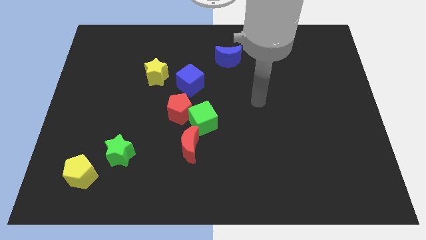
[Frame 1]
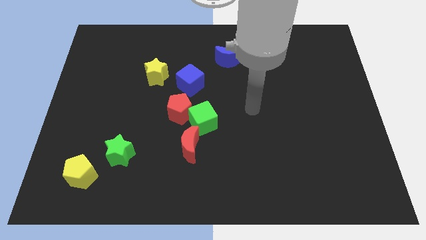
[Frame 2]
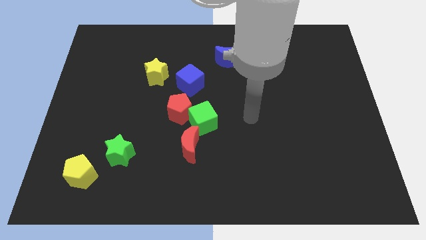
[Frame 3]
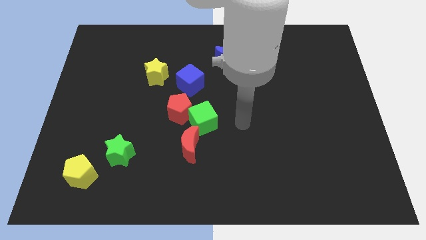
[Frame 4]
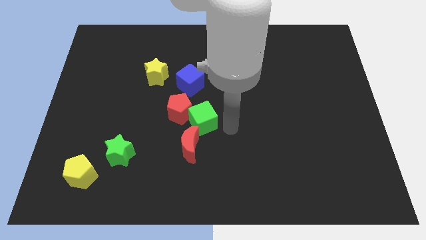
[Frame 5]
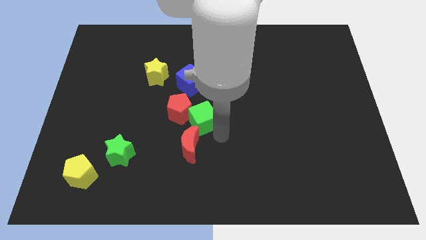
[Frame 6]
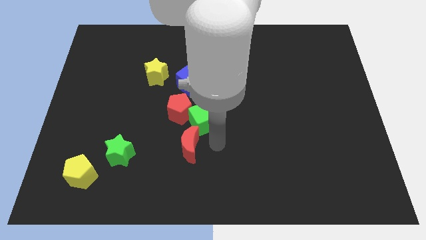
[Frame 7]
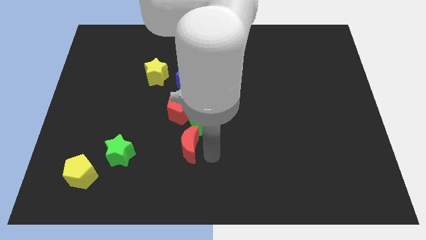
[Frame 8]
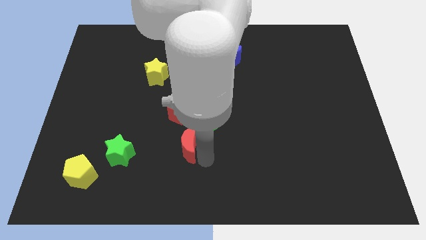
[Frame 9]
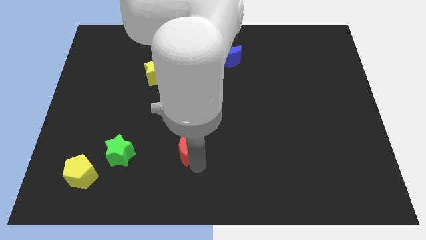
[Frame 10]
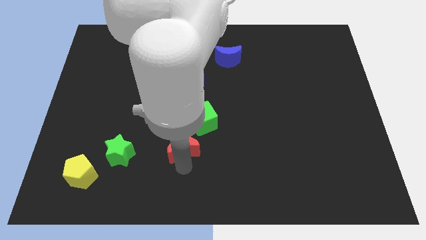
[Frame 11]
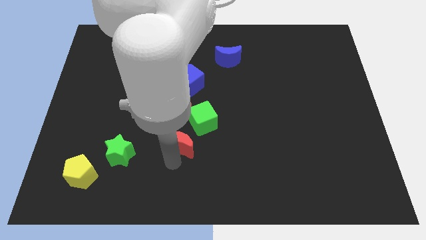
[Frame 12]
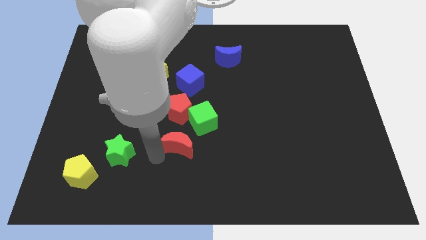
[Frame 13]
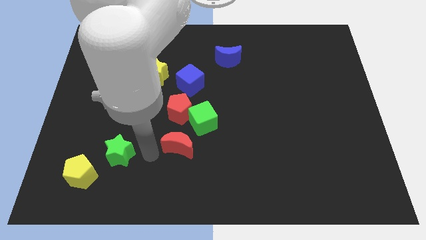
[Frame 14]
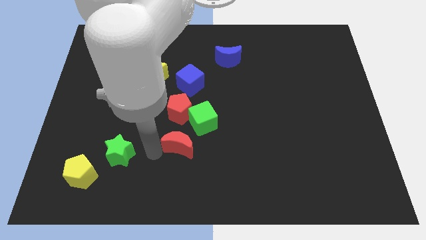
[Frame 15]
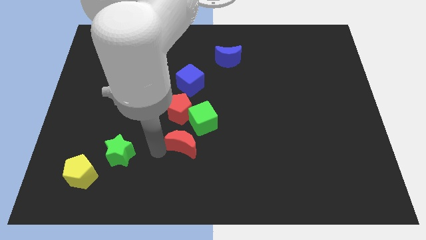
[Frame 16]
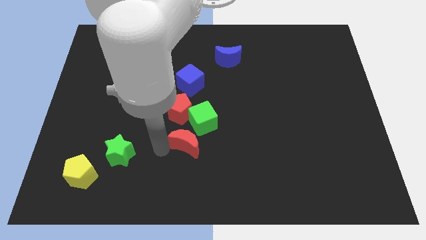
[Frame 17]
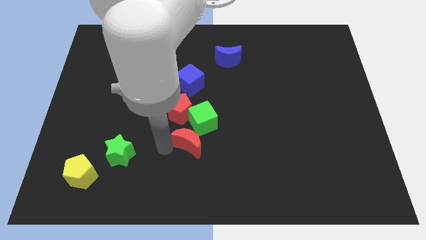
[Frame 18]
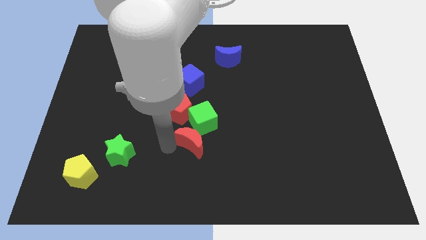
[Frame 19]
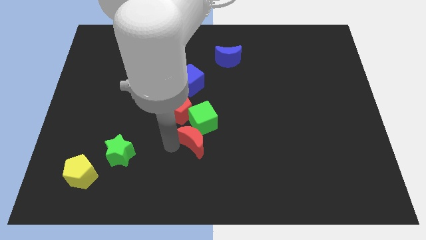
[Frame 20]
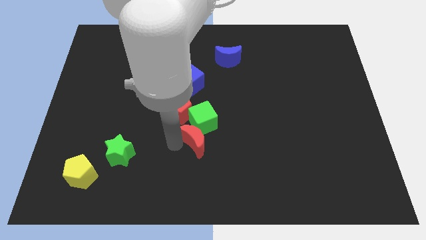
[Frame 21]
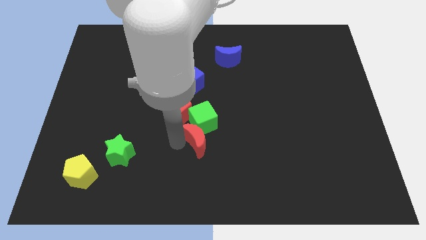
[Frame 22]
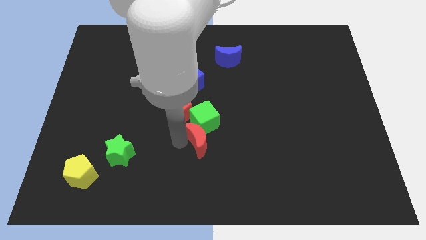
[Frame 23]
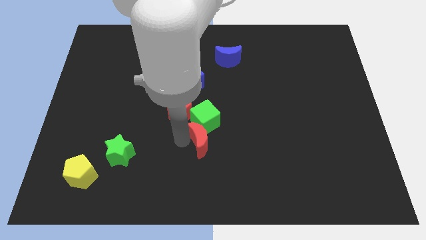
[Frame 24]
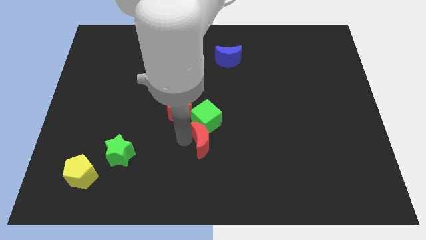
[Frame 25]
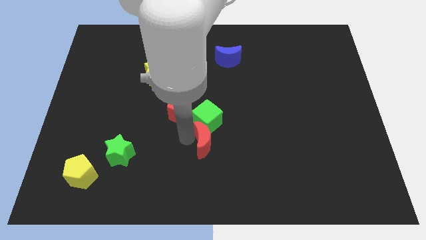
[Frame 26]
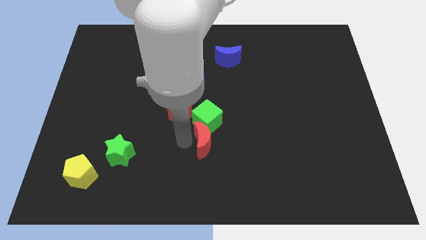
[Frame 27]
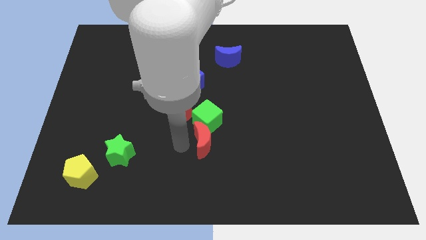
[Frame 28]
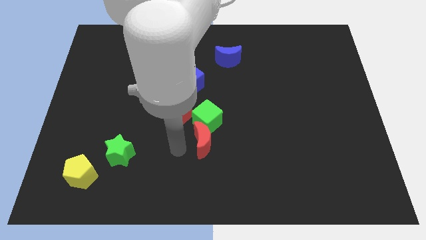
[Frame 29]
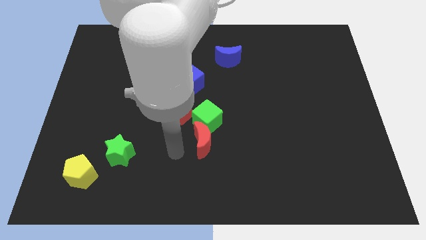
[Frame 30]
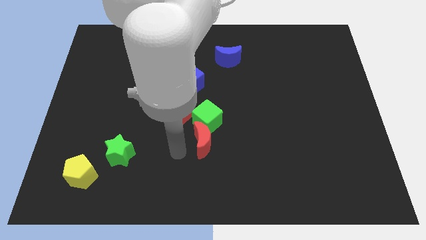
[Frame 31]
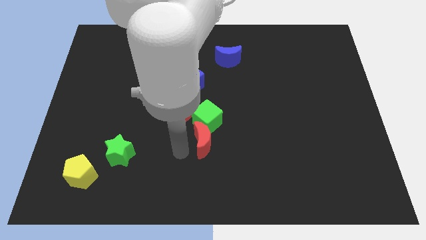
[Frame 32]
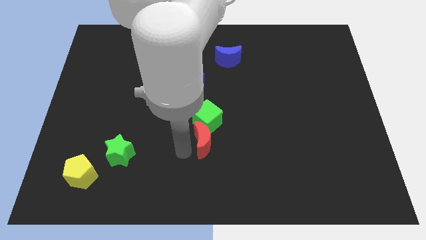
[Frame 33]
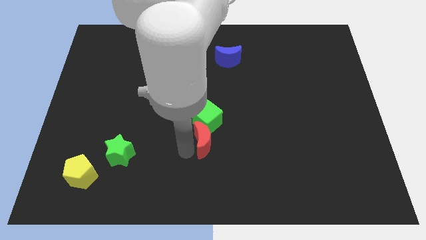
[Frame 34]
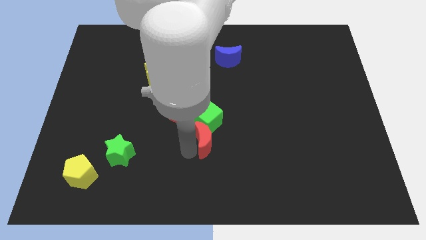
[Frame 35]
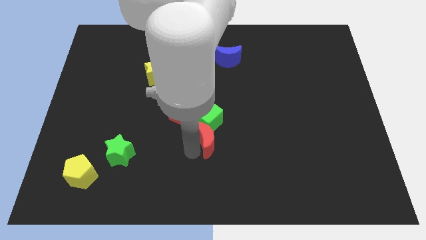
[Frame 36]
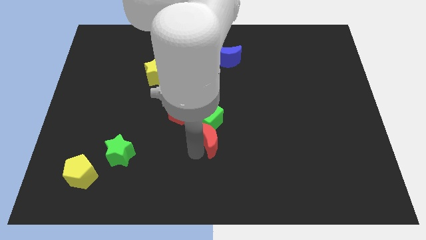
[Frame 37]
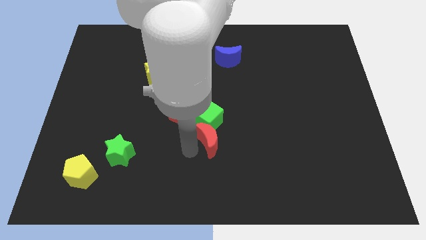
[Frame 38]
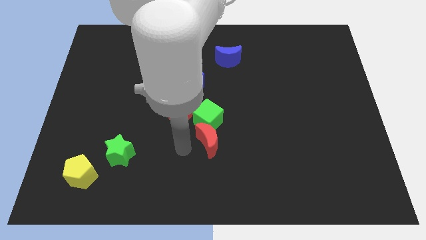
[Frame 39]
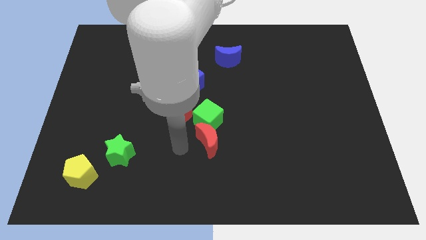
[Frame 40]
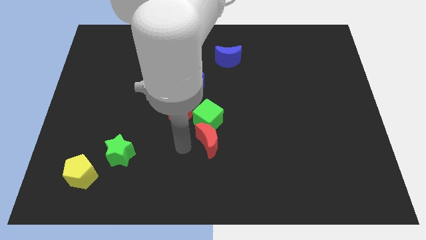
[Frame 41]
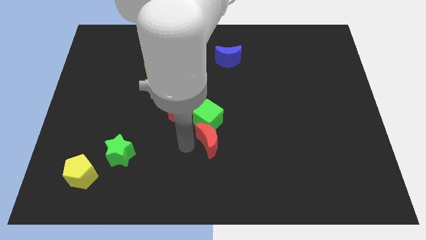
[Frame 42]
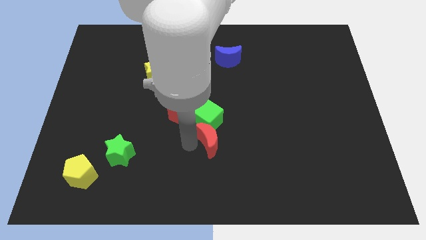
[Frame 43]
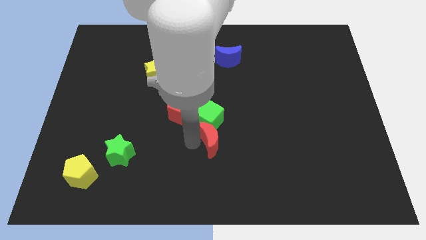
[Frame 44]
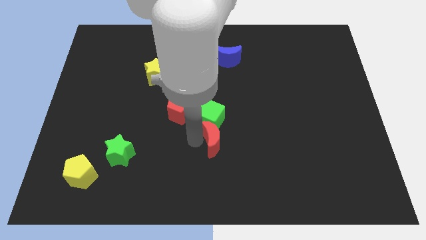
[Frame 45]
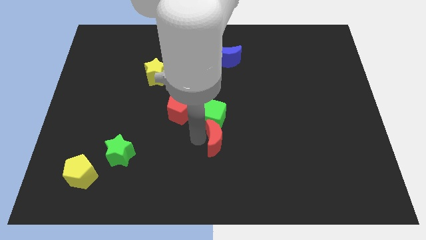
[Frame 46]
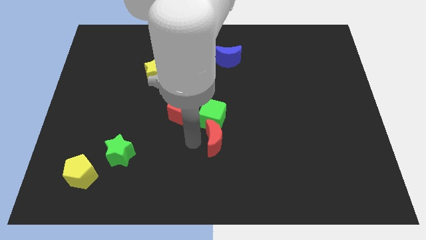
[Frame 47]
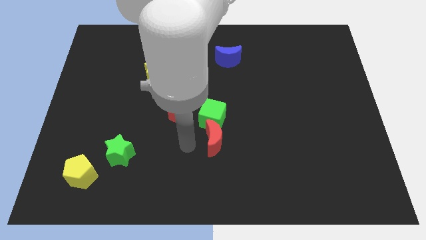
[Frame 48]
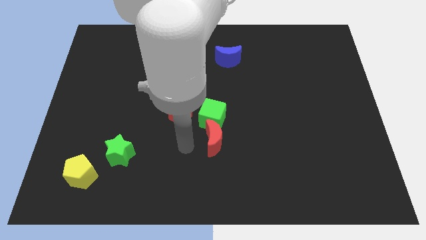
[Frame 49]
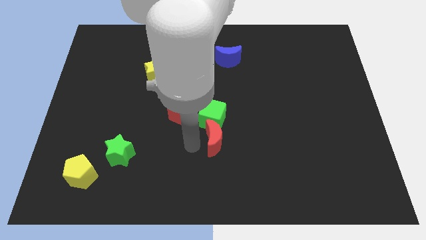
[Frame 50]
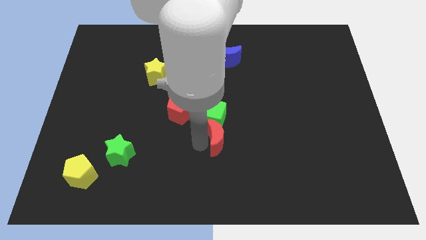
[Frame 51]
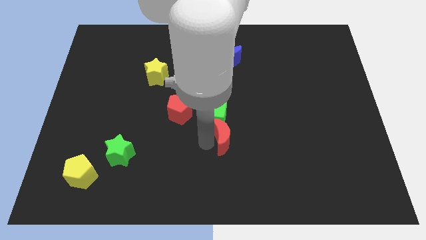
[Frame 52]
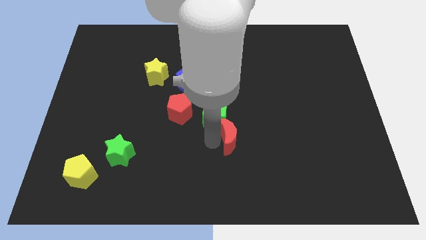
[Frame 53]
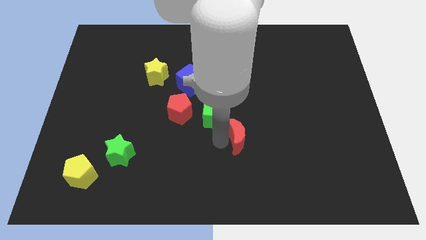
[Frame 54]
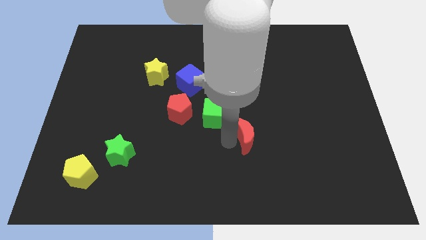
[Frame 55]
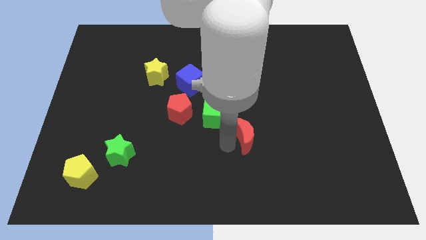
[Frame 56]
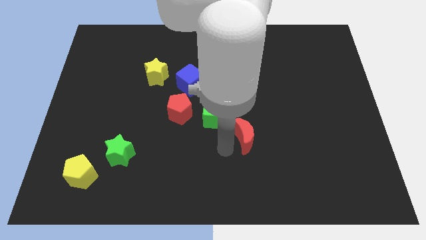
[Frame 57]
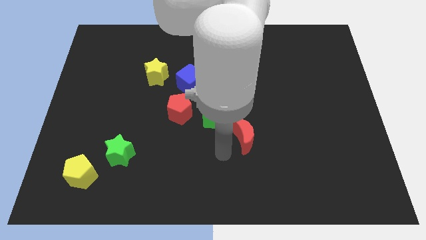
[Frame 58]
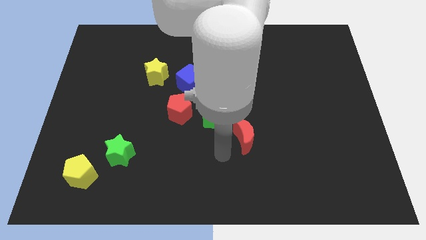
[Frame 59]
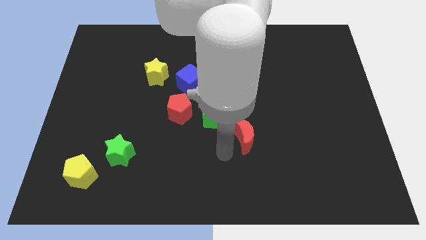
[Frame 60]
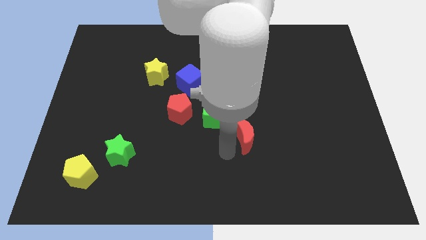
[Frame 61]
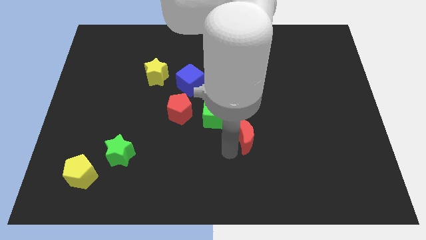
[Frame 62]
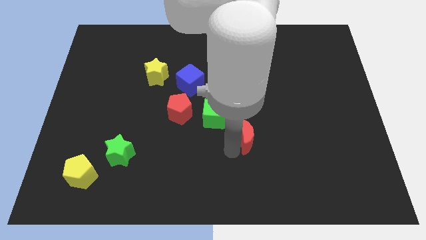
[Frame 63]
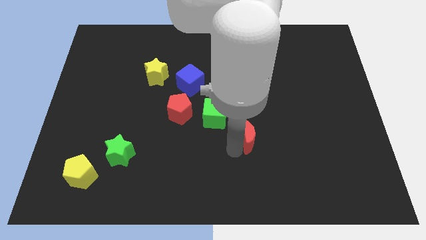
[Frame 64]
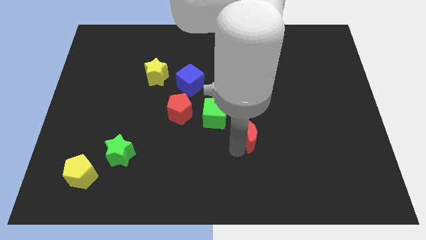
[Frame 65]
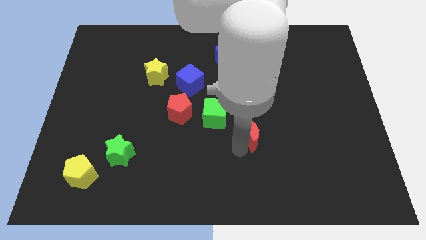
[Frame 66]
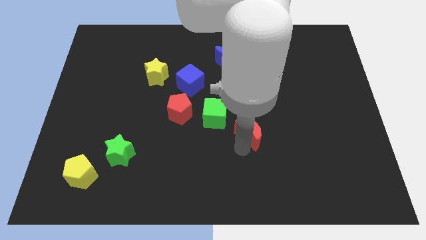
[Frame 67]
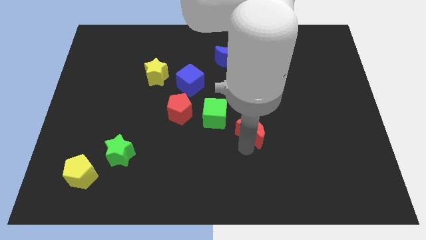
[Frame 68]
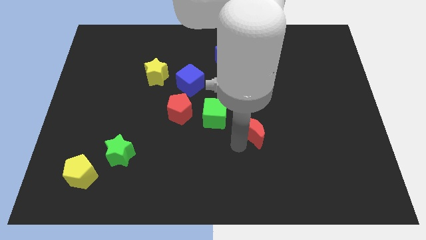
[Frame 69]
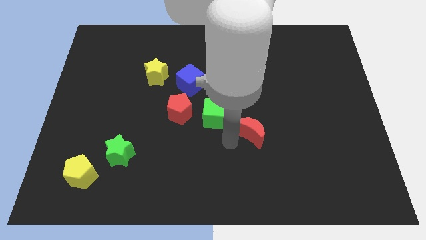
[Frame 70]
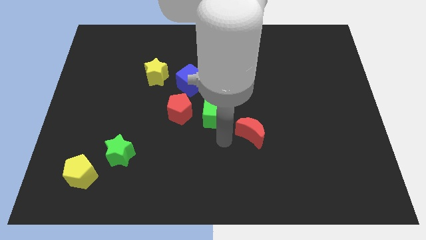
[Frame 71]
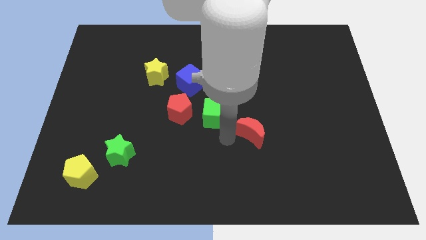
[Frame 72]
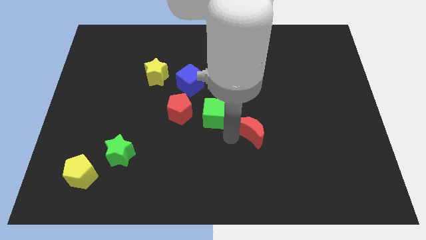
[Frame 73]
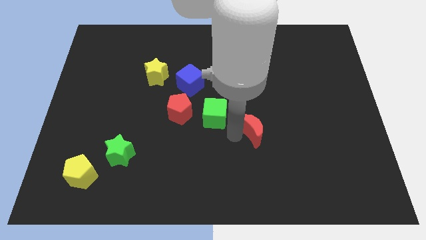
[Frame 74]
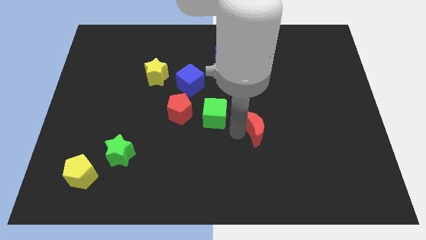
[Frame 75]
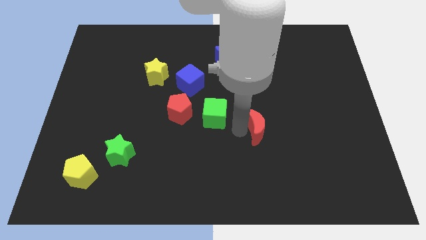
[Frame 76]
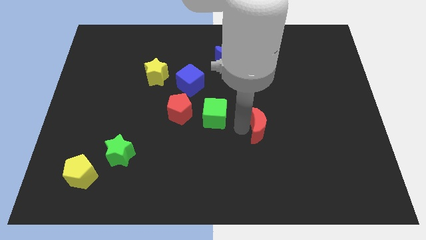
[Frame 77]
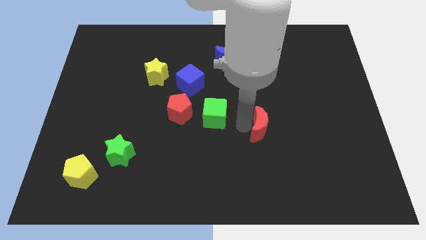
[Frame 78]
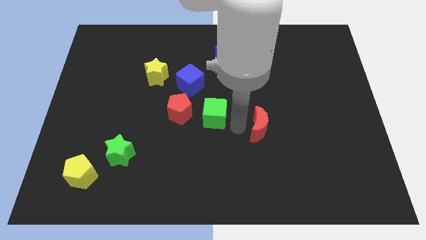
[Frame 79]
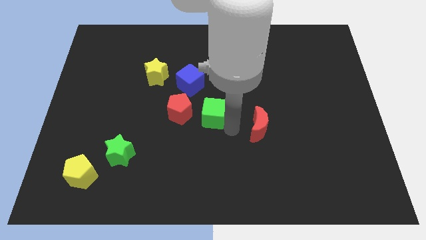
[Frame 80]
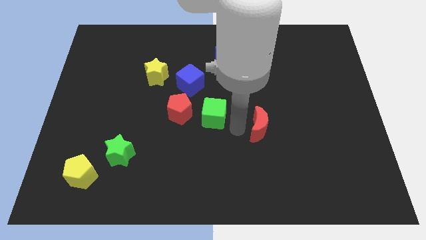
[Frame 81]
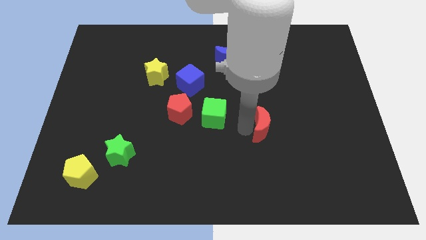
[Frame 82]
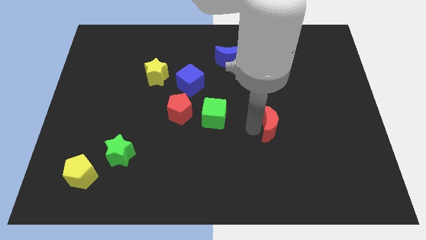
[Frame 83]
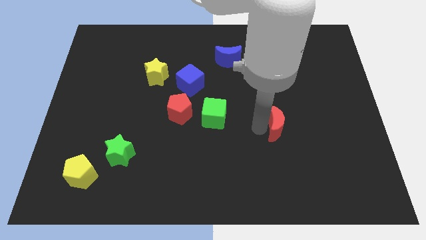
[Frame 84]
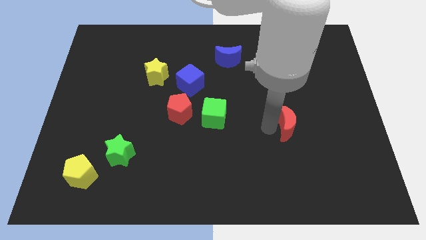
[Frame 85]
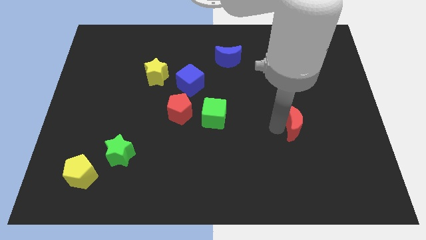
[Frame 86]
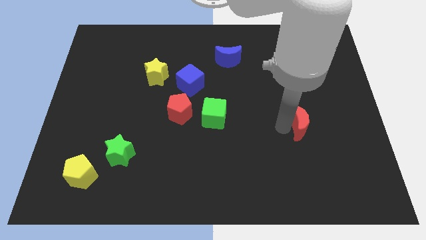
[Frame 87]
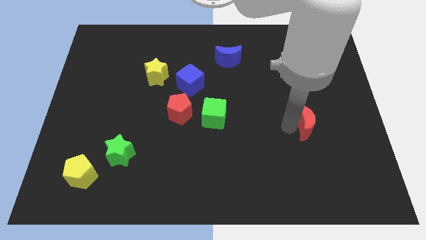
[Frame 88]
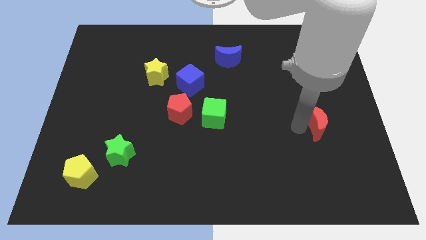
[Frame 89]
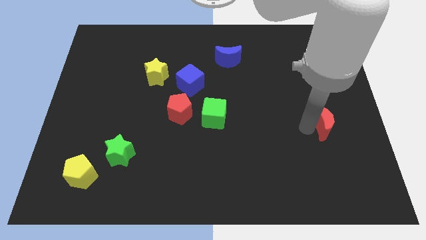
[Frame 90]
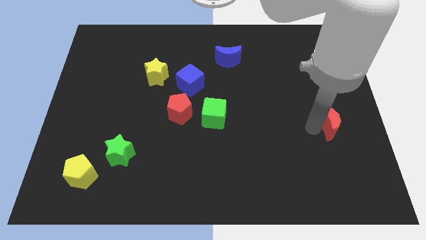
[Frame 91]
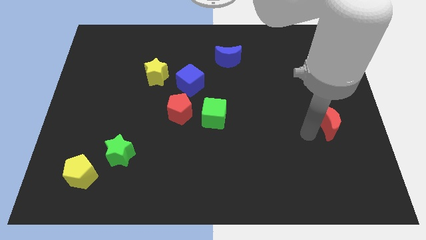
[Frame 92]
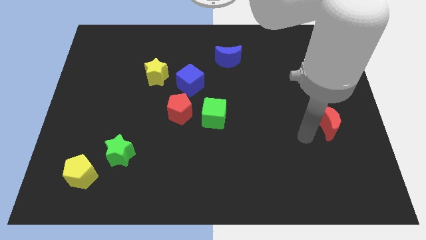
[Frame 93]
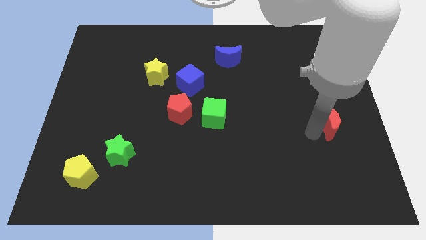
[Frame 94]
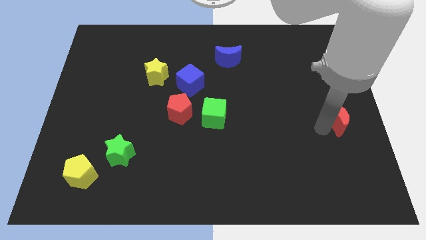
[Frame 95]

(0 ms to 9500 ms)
push the red moon to the right side
